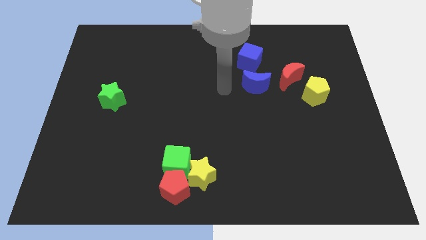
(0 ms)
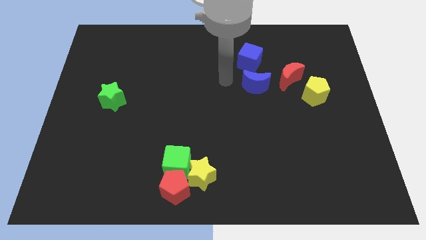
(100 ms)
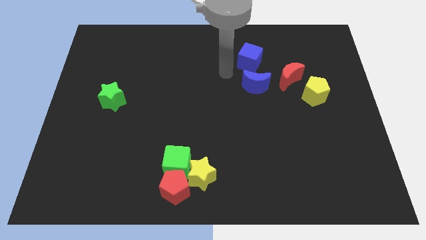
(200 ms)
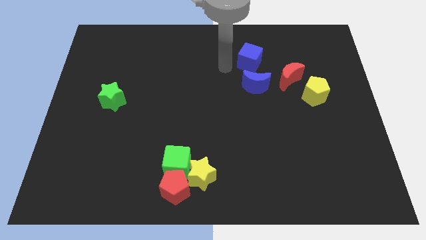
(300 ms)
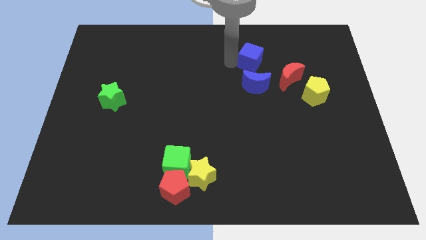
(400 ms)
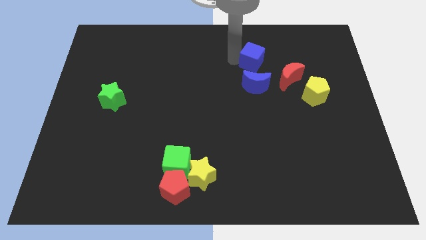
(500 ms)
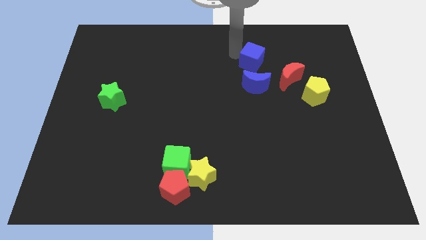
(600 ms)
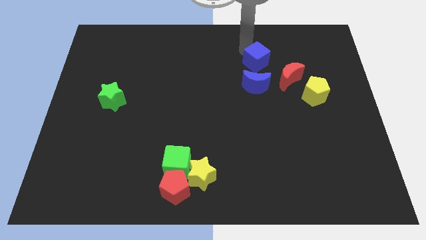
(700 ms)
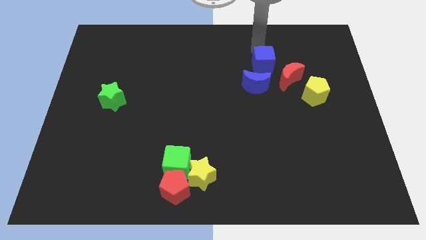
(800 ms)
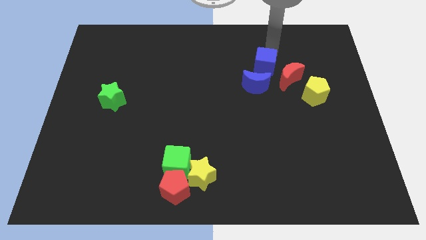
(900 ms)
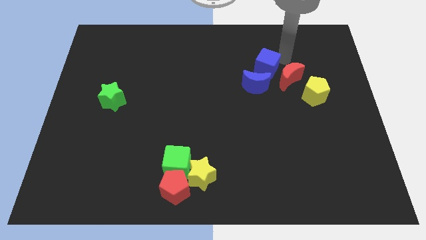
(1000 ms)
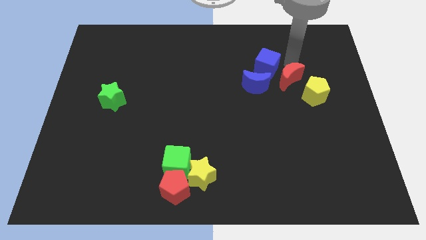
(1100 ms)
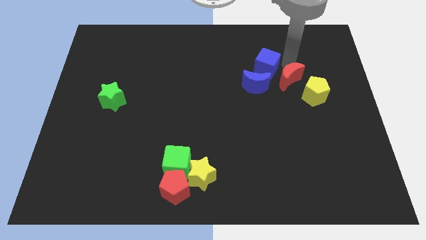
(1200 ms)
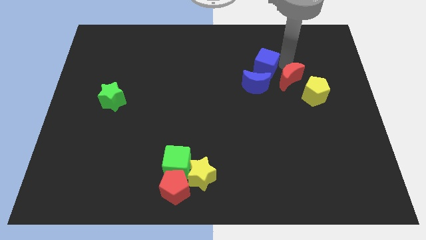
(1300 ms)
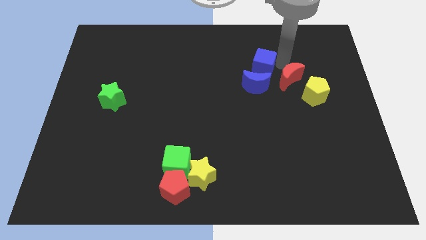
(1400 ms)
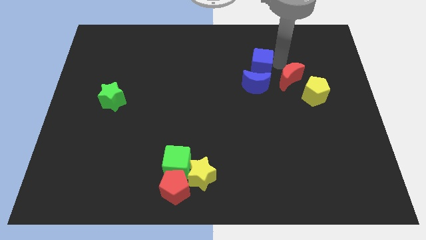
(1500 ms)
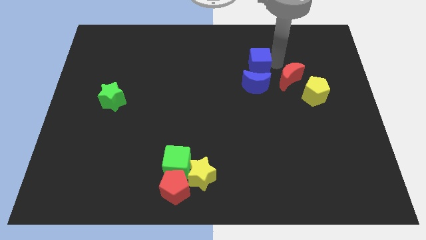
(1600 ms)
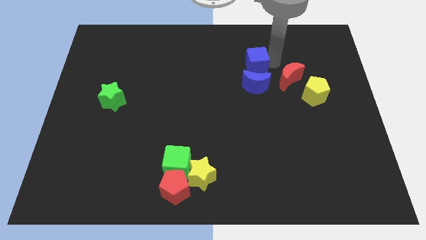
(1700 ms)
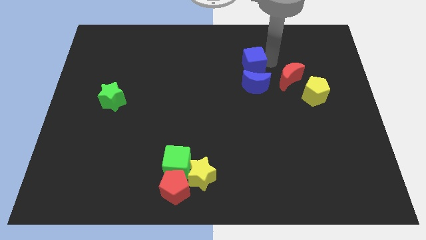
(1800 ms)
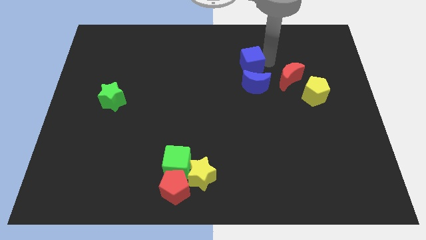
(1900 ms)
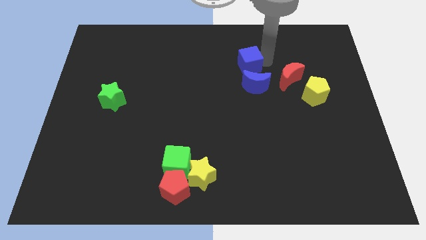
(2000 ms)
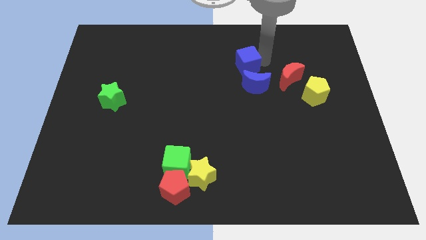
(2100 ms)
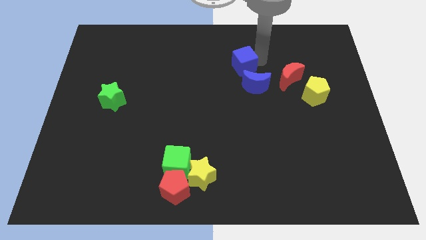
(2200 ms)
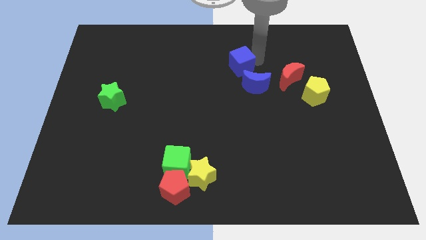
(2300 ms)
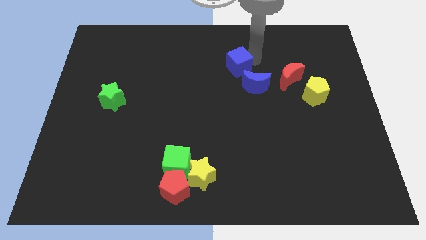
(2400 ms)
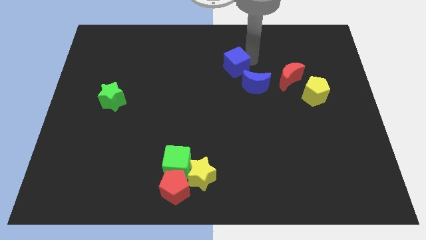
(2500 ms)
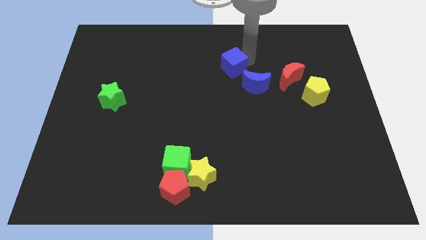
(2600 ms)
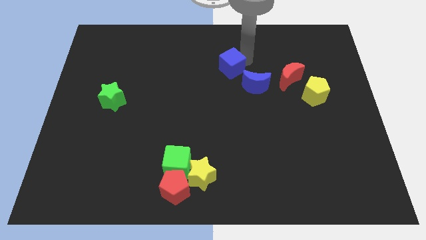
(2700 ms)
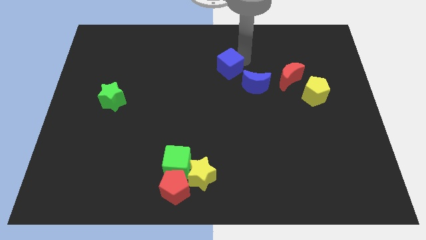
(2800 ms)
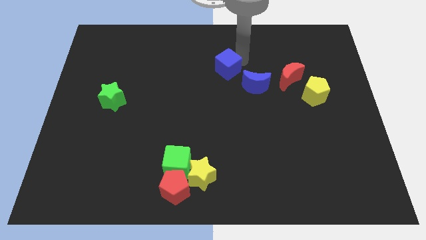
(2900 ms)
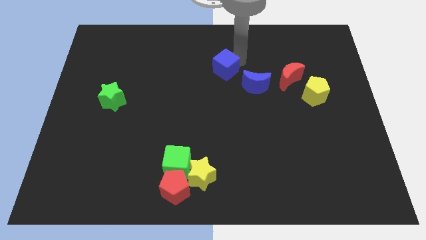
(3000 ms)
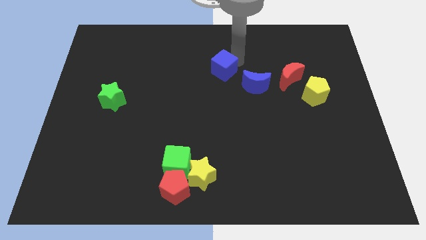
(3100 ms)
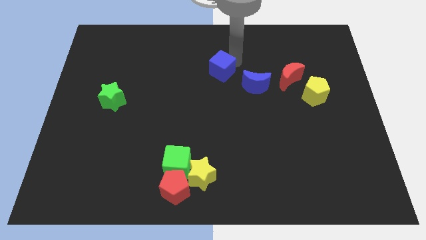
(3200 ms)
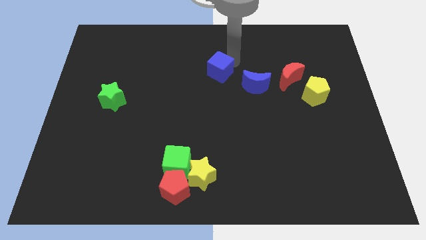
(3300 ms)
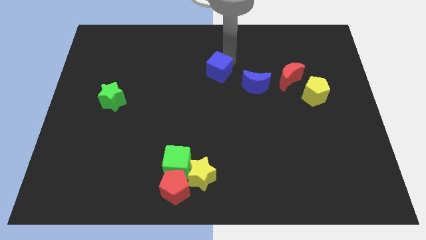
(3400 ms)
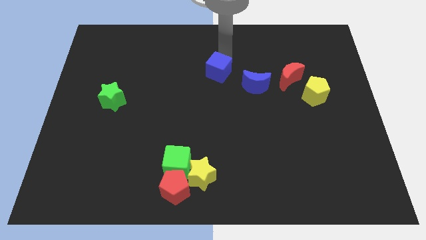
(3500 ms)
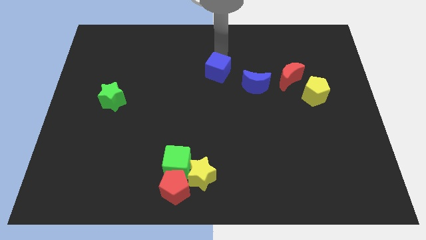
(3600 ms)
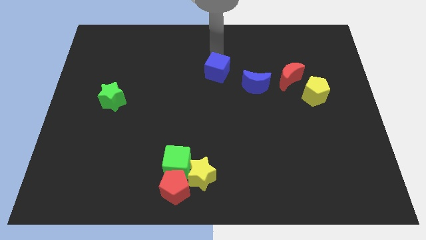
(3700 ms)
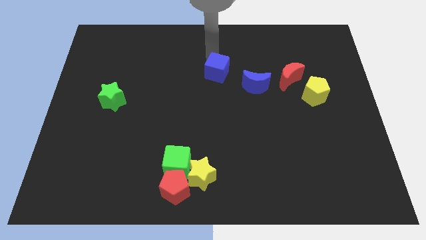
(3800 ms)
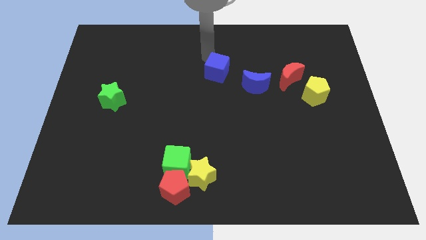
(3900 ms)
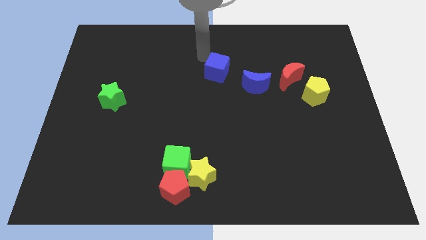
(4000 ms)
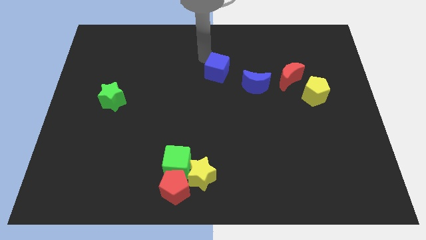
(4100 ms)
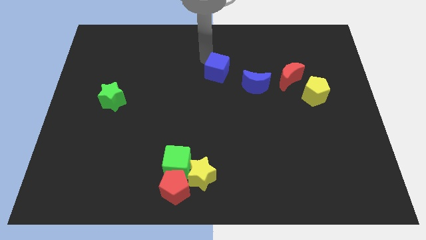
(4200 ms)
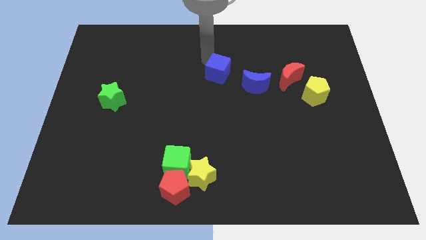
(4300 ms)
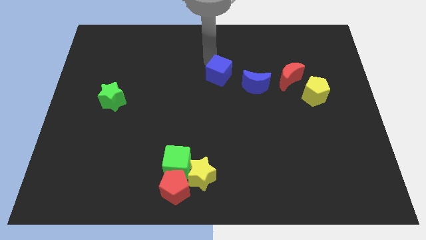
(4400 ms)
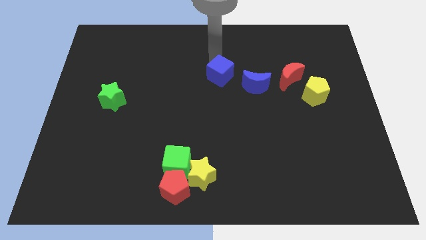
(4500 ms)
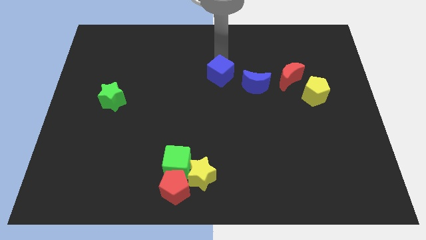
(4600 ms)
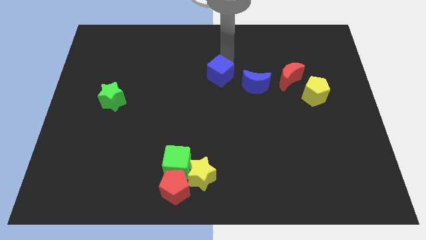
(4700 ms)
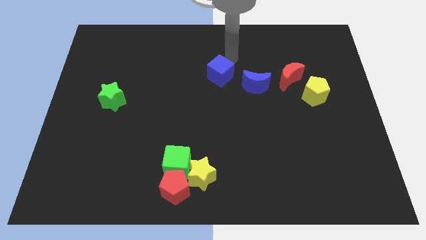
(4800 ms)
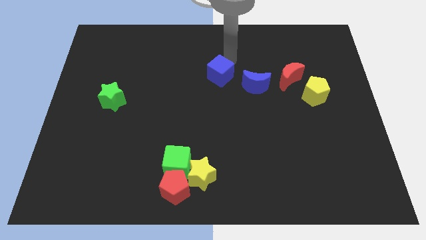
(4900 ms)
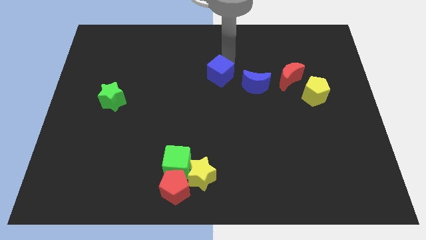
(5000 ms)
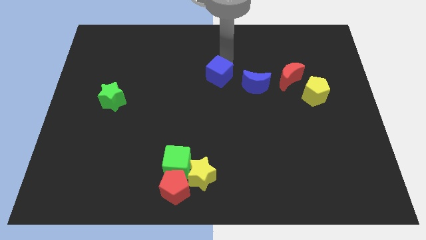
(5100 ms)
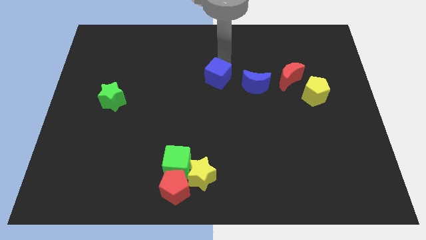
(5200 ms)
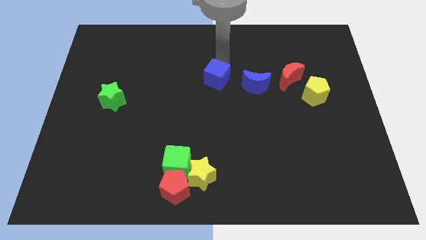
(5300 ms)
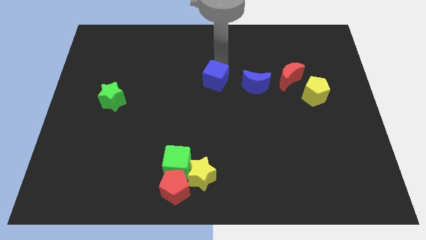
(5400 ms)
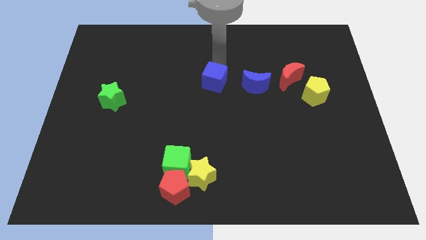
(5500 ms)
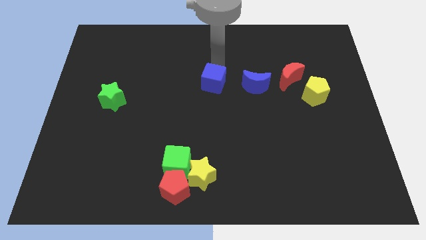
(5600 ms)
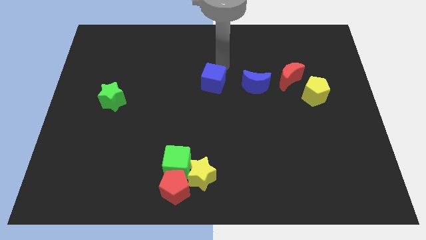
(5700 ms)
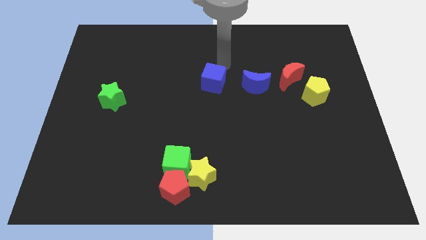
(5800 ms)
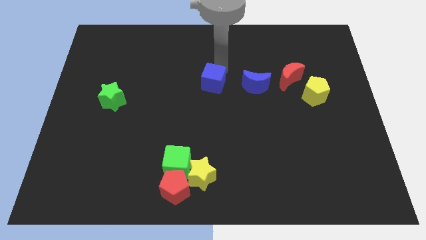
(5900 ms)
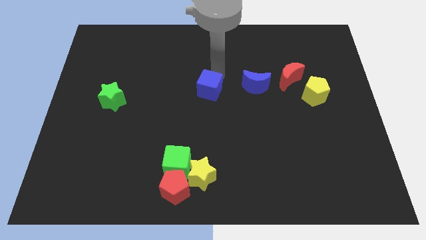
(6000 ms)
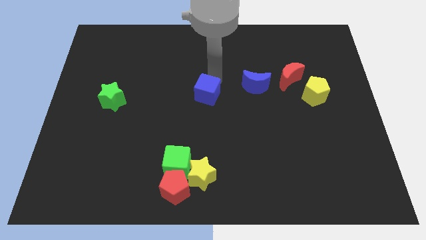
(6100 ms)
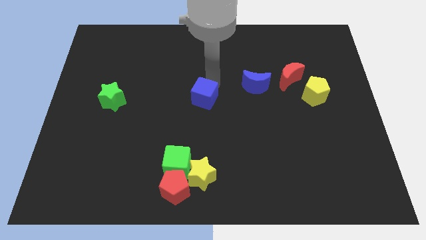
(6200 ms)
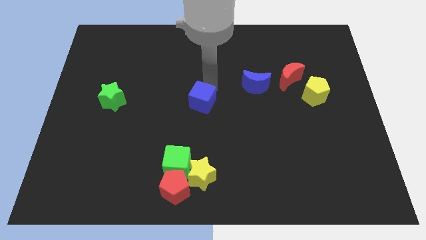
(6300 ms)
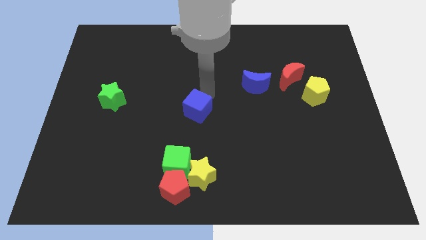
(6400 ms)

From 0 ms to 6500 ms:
slide the blue cube to the top of the green cube
